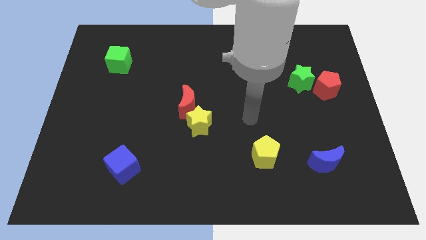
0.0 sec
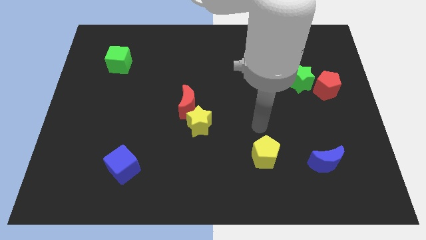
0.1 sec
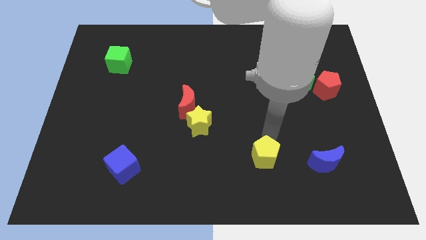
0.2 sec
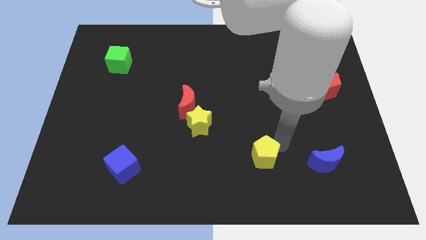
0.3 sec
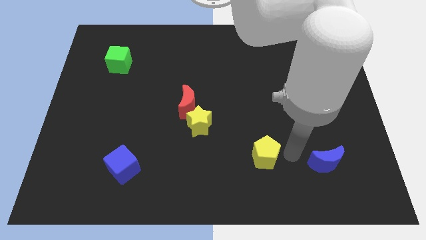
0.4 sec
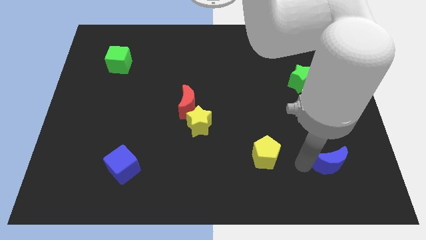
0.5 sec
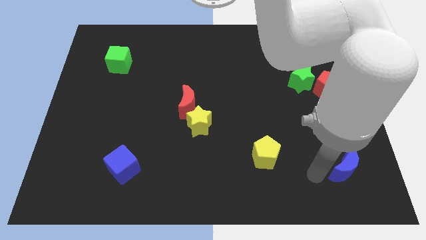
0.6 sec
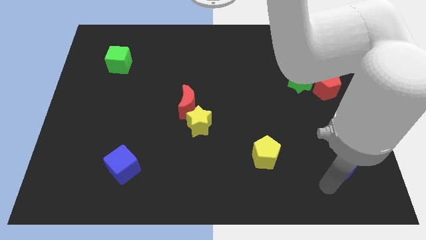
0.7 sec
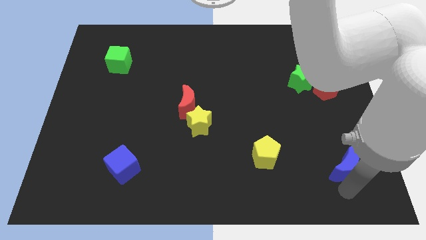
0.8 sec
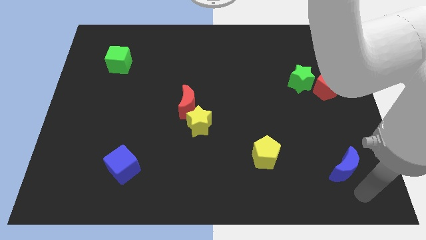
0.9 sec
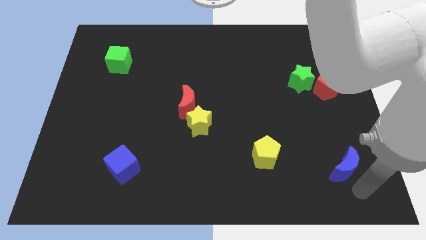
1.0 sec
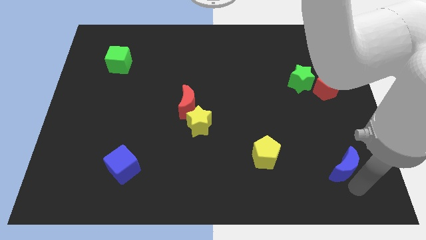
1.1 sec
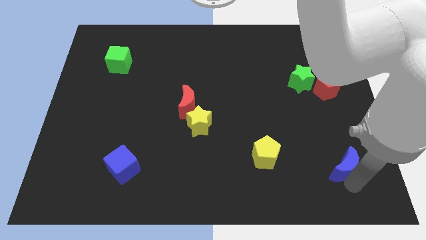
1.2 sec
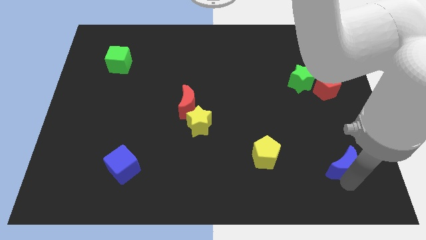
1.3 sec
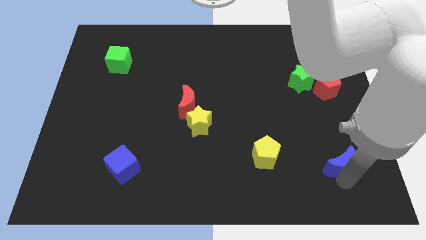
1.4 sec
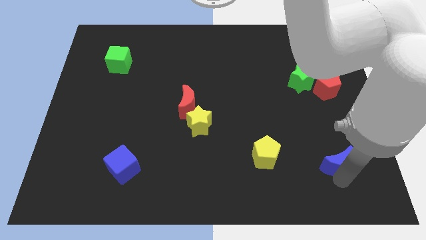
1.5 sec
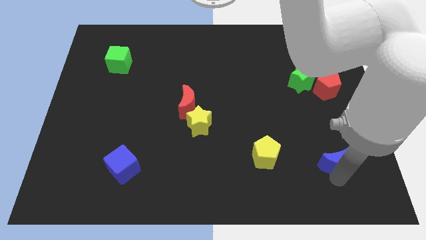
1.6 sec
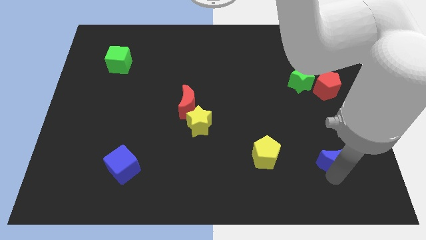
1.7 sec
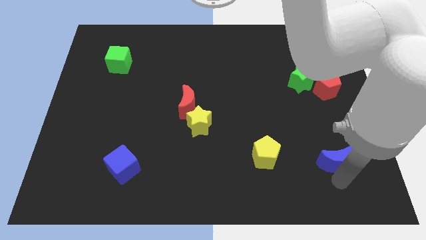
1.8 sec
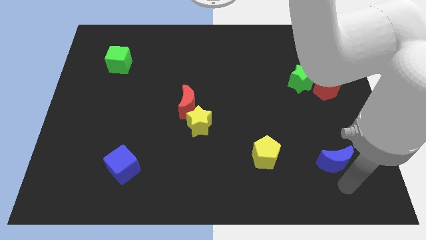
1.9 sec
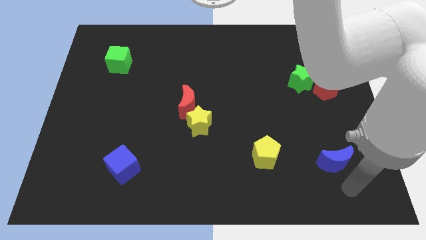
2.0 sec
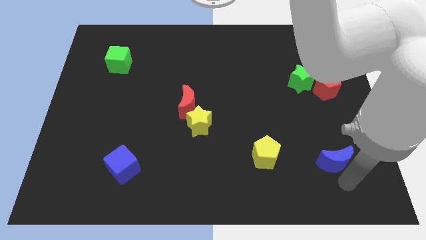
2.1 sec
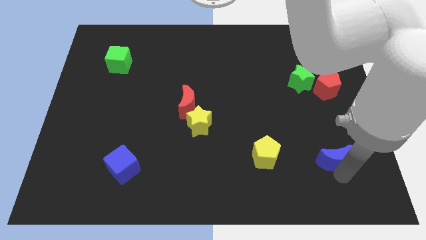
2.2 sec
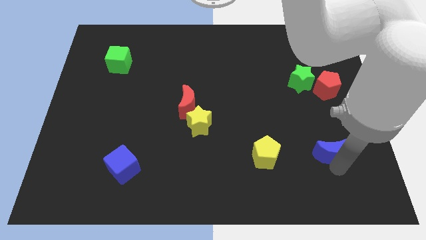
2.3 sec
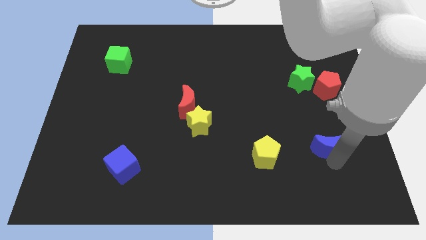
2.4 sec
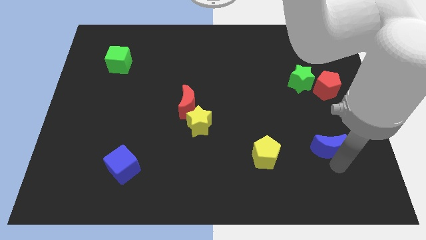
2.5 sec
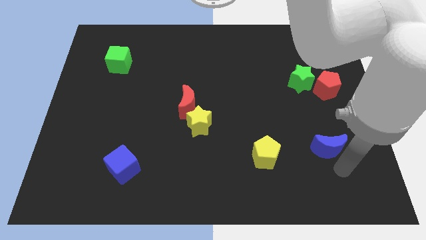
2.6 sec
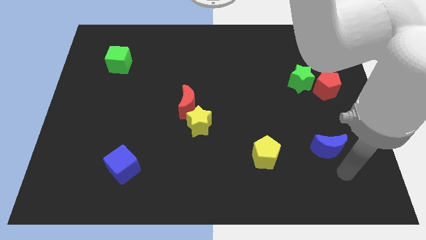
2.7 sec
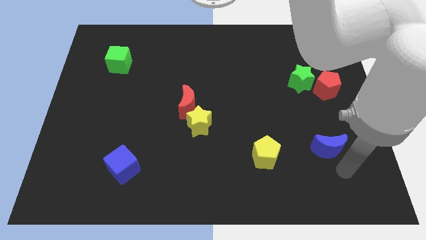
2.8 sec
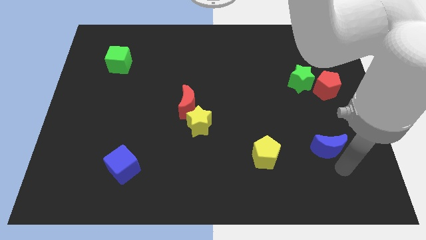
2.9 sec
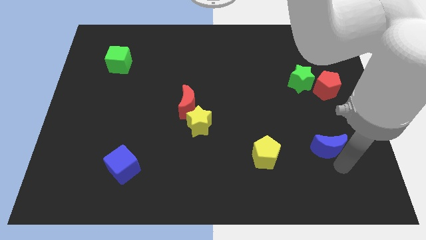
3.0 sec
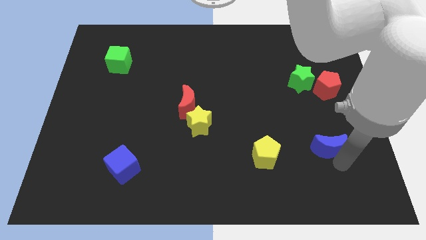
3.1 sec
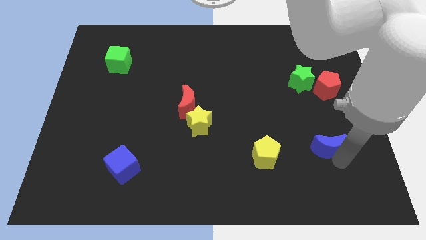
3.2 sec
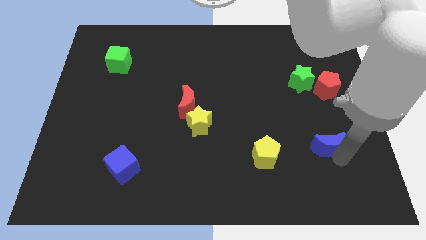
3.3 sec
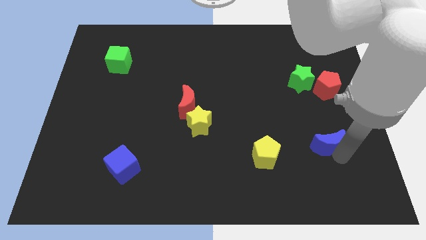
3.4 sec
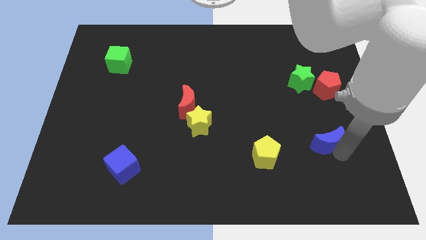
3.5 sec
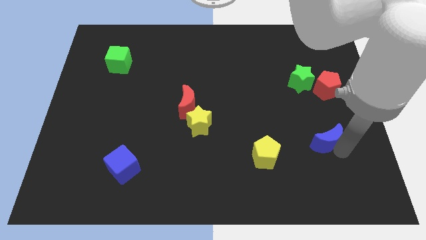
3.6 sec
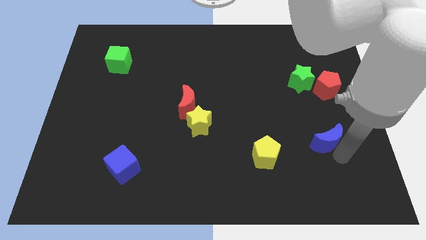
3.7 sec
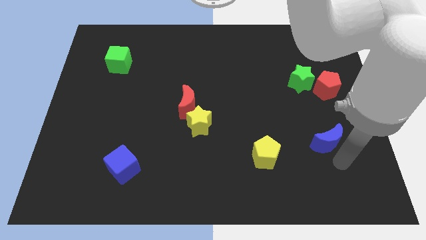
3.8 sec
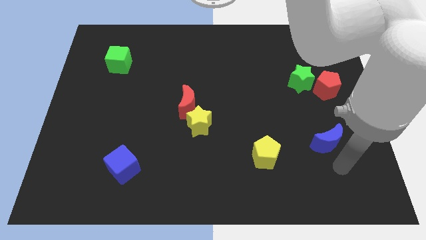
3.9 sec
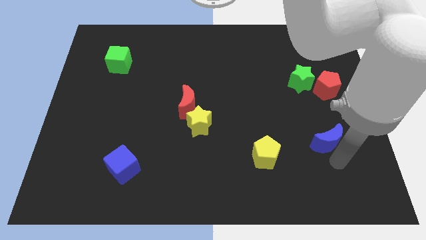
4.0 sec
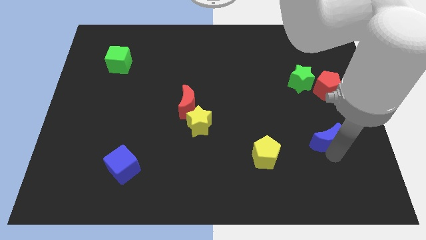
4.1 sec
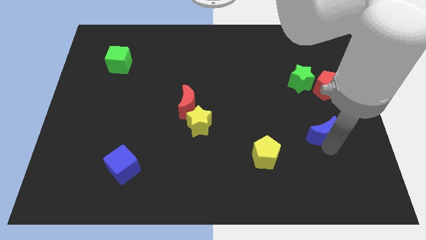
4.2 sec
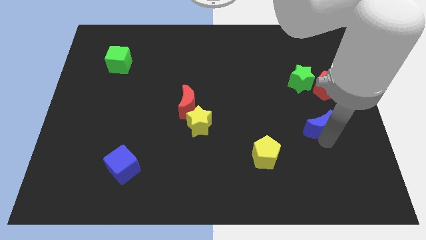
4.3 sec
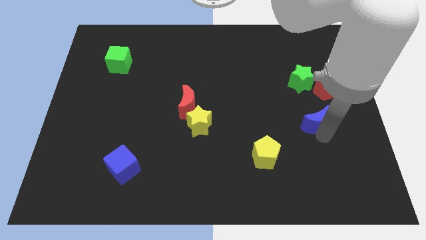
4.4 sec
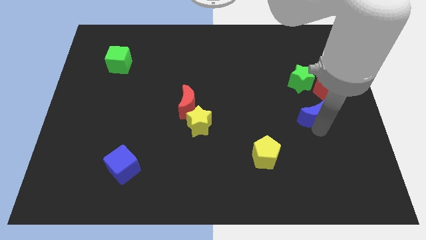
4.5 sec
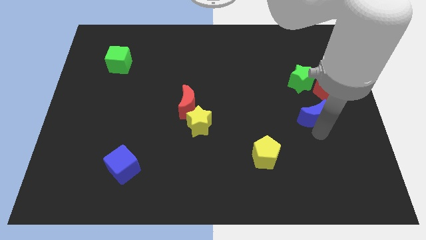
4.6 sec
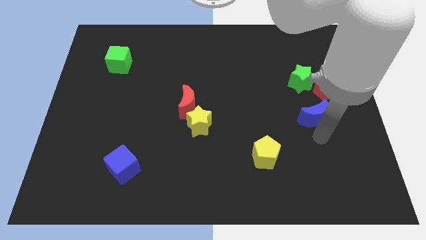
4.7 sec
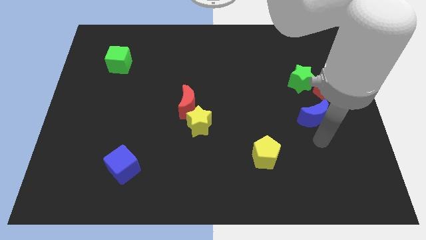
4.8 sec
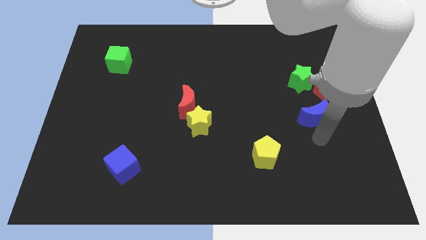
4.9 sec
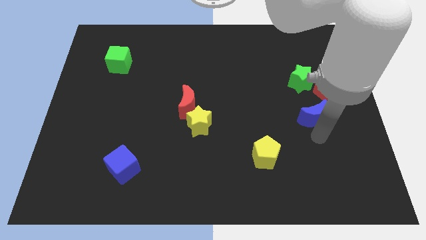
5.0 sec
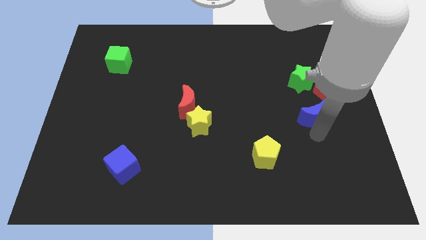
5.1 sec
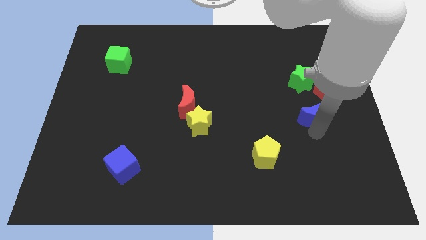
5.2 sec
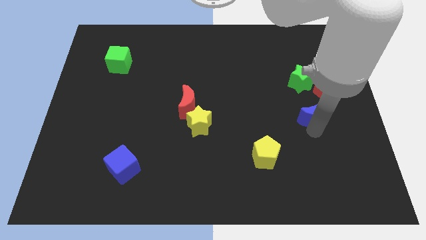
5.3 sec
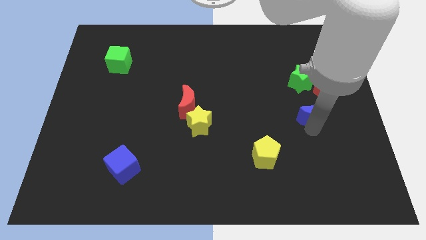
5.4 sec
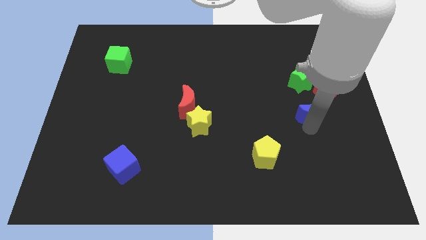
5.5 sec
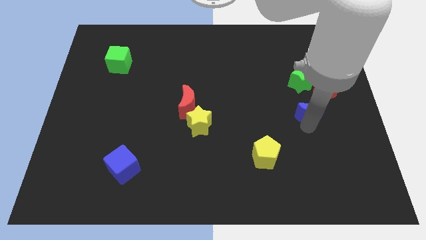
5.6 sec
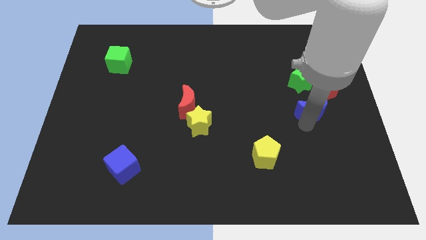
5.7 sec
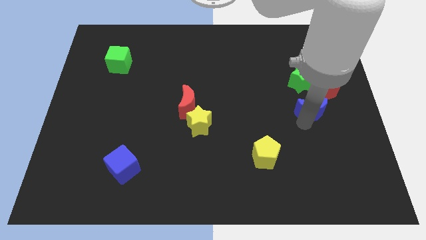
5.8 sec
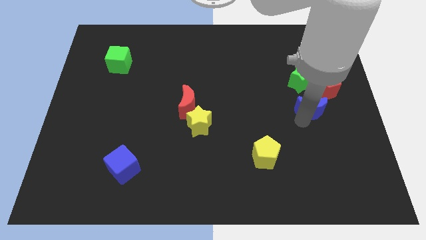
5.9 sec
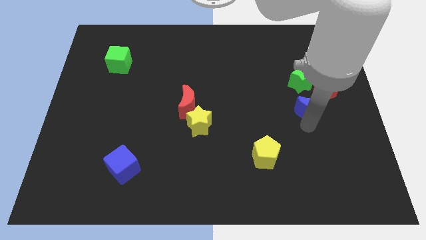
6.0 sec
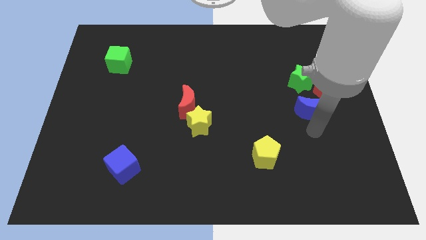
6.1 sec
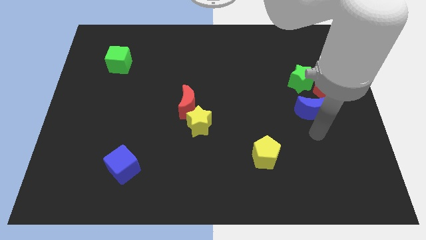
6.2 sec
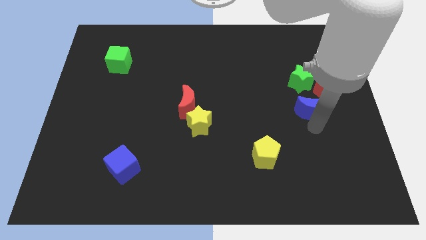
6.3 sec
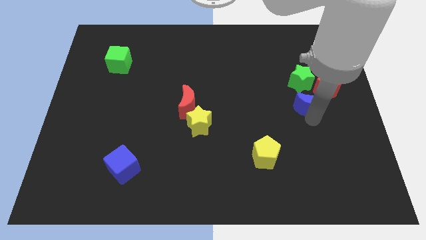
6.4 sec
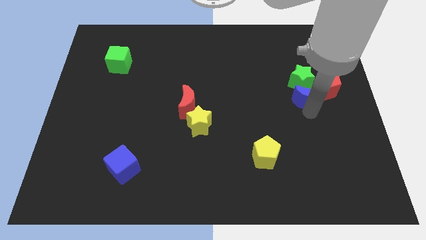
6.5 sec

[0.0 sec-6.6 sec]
move the blue moon close to the green star

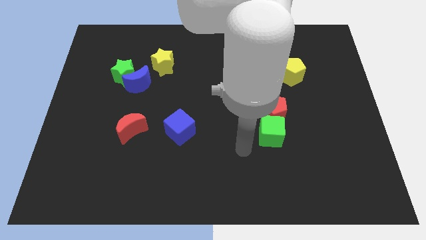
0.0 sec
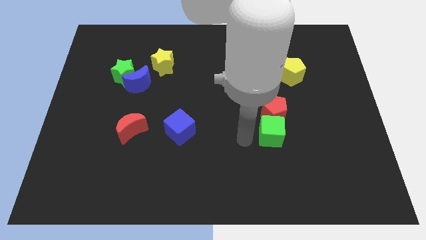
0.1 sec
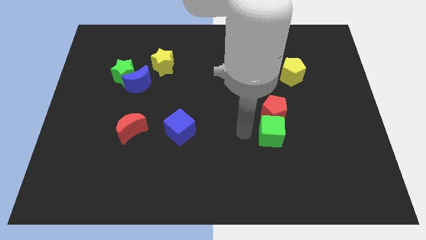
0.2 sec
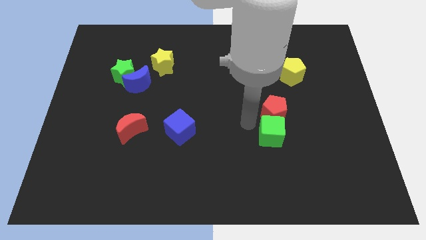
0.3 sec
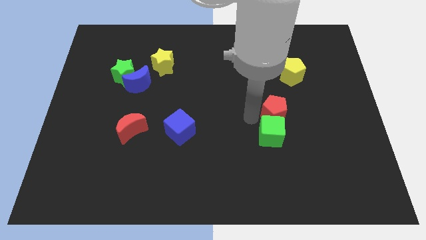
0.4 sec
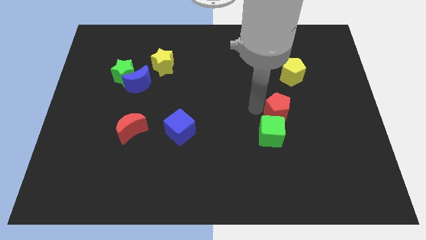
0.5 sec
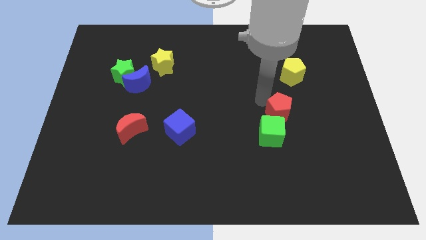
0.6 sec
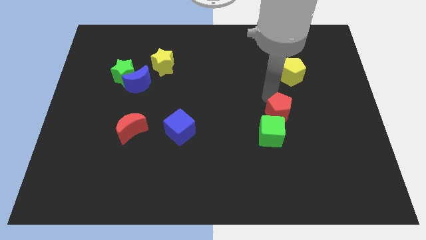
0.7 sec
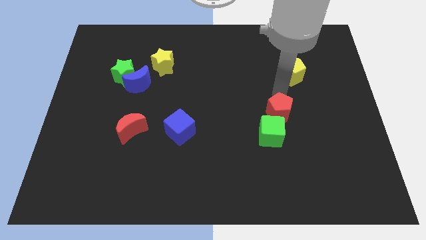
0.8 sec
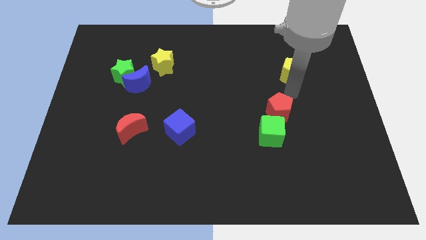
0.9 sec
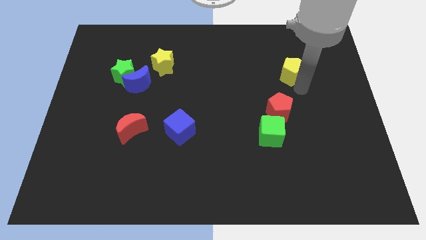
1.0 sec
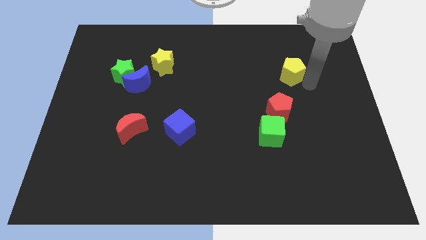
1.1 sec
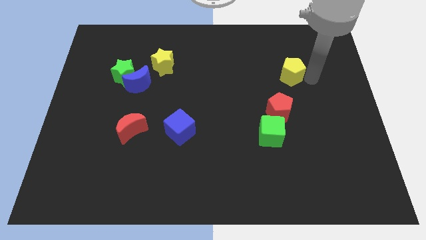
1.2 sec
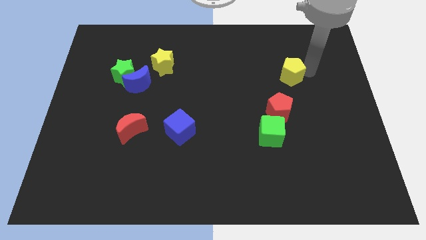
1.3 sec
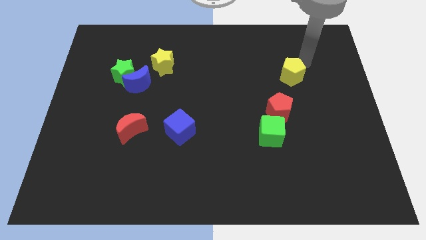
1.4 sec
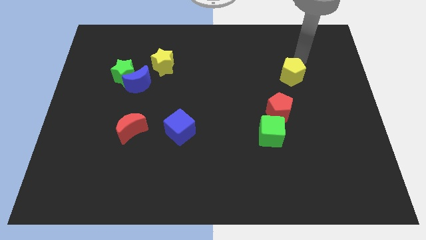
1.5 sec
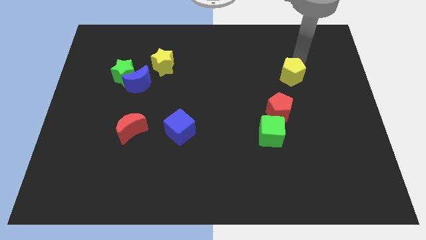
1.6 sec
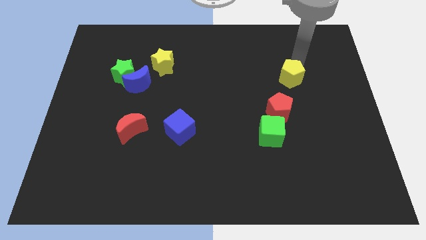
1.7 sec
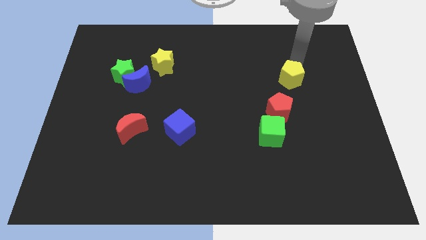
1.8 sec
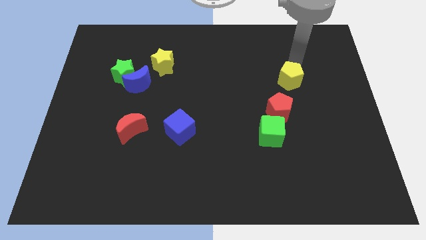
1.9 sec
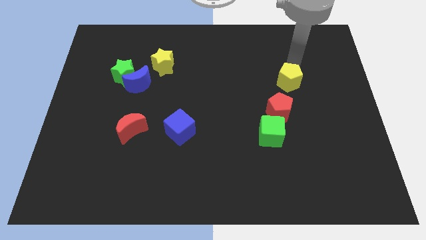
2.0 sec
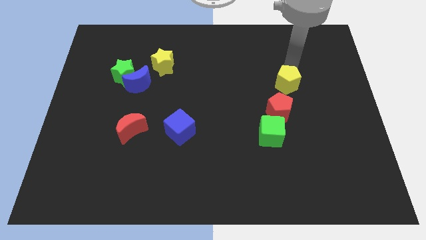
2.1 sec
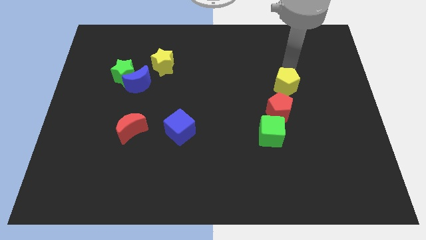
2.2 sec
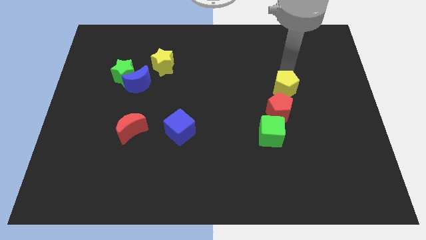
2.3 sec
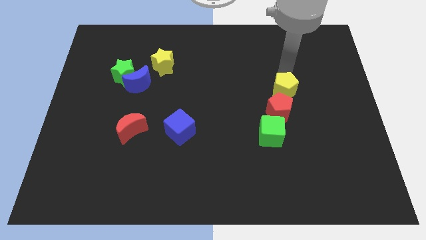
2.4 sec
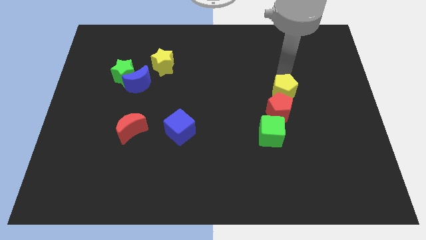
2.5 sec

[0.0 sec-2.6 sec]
push the yellow pentagon towards the red pentagon
